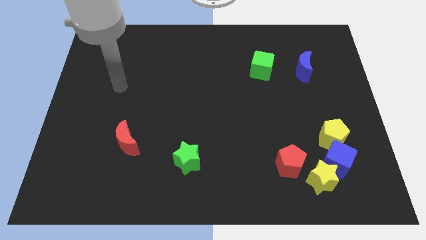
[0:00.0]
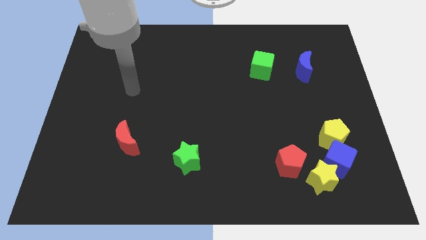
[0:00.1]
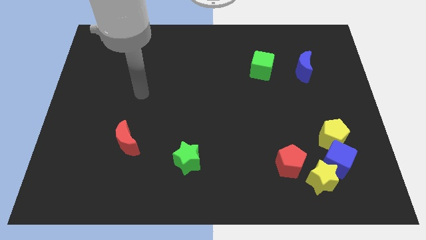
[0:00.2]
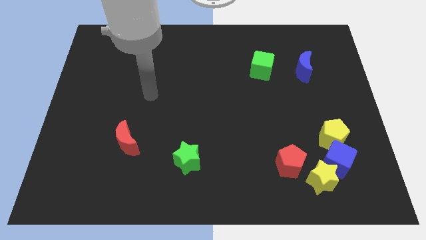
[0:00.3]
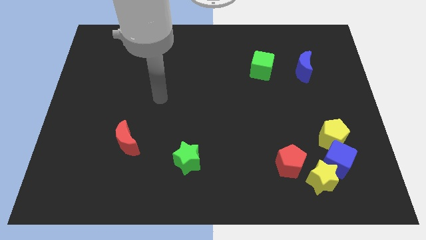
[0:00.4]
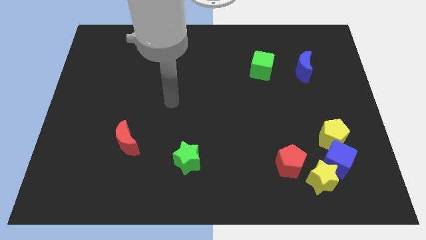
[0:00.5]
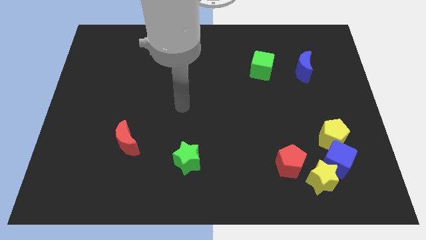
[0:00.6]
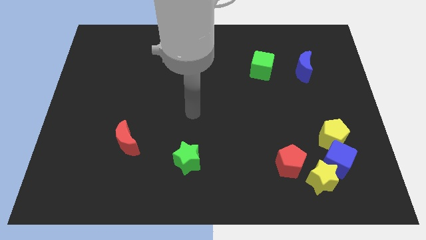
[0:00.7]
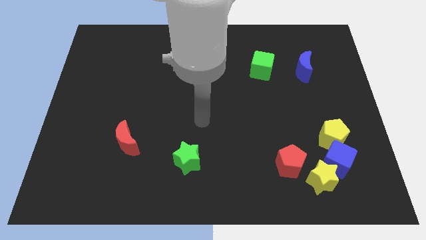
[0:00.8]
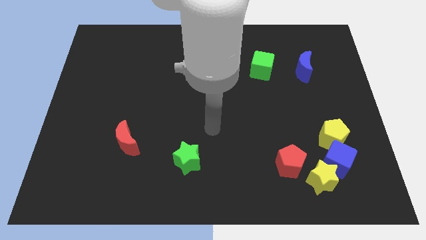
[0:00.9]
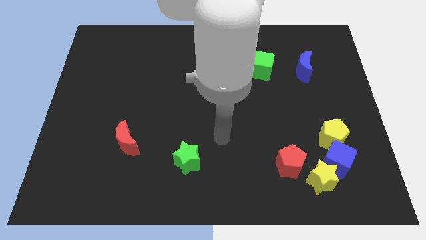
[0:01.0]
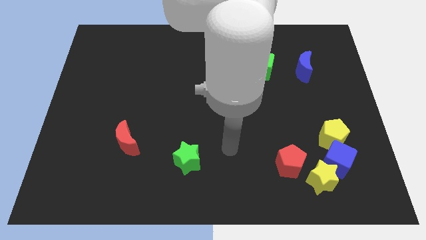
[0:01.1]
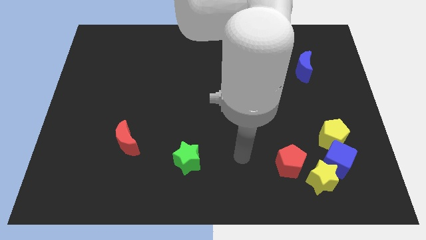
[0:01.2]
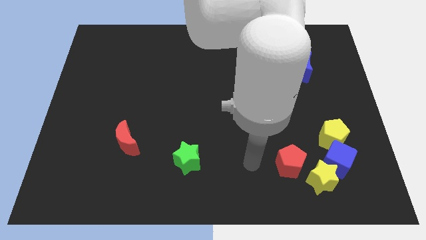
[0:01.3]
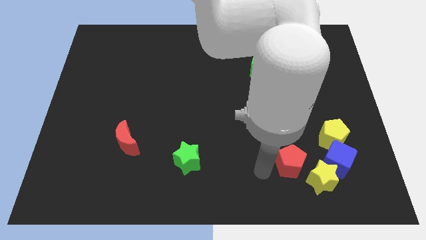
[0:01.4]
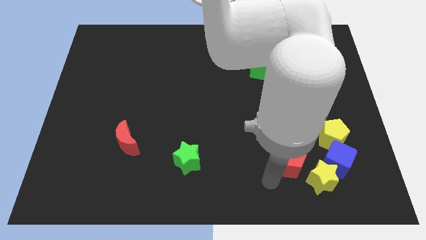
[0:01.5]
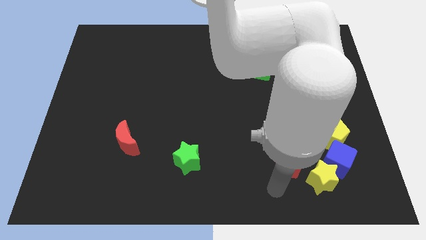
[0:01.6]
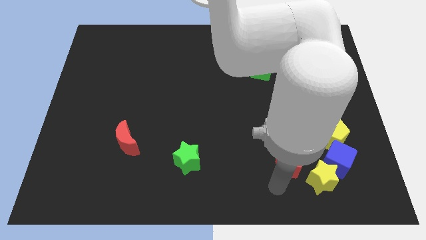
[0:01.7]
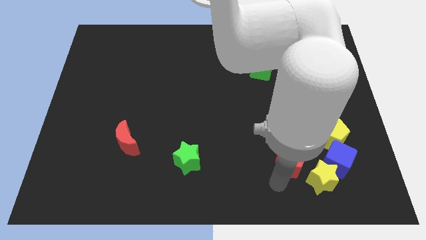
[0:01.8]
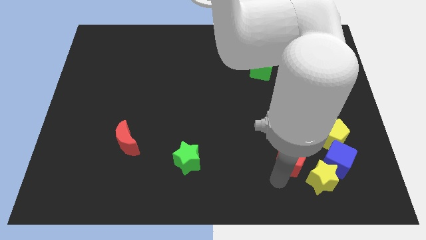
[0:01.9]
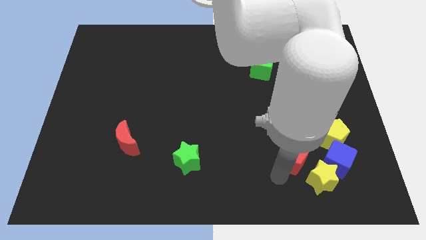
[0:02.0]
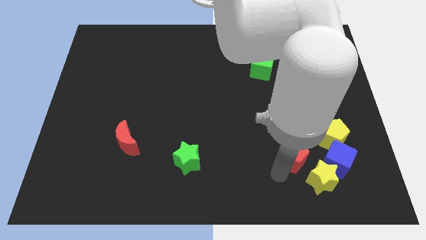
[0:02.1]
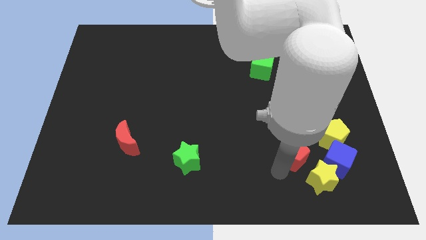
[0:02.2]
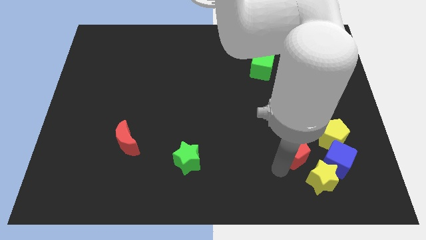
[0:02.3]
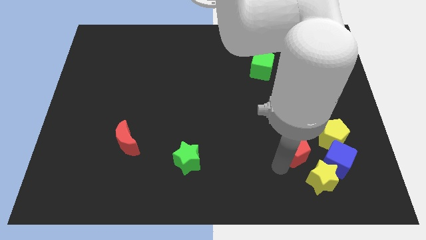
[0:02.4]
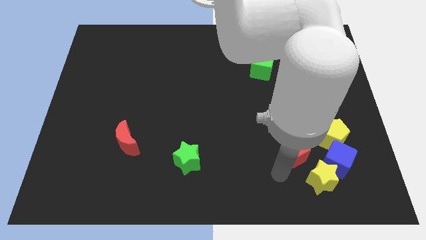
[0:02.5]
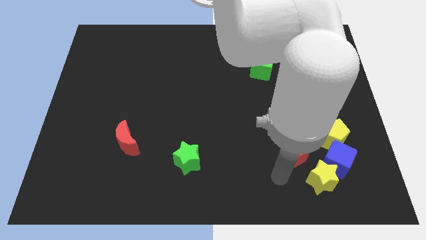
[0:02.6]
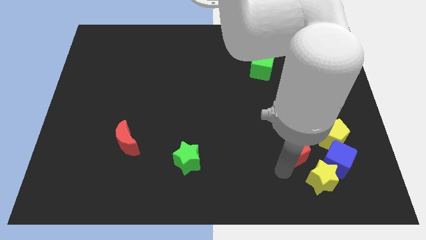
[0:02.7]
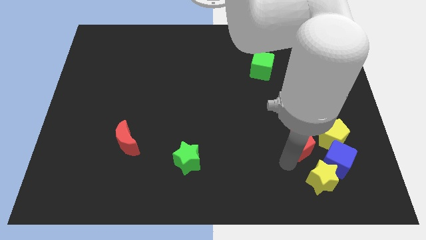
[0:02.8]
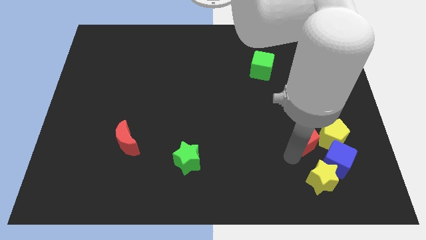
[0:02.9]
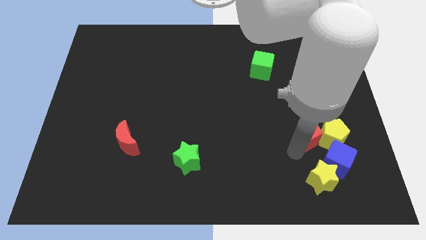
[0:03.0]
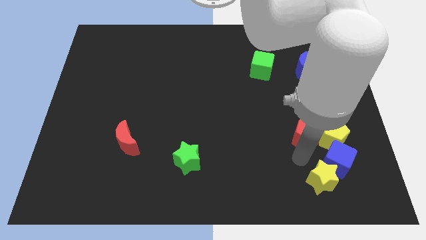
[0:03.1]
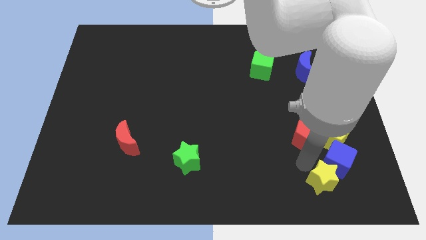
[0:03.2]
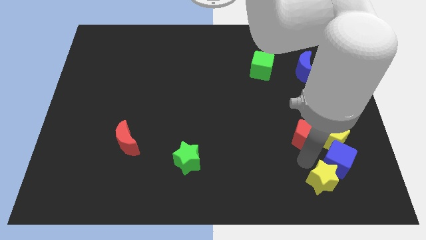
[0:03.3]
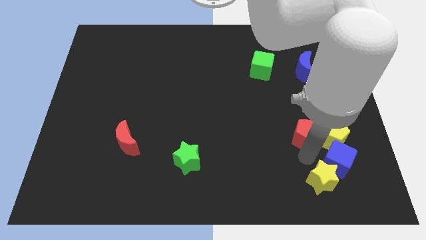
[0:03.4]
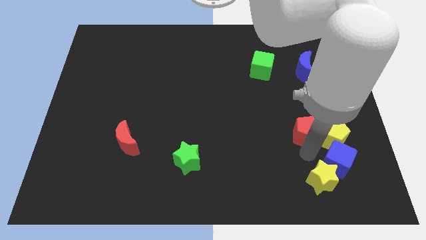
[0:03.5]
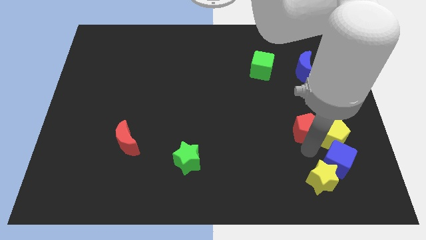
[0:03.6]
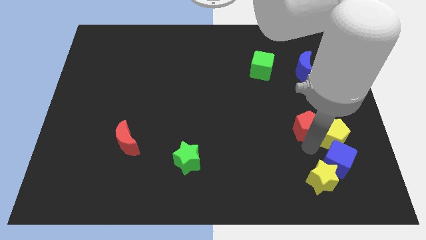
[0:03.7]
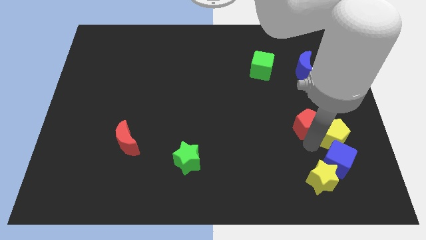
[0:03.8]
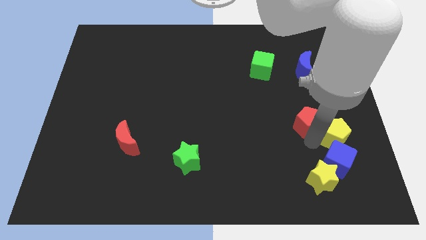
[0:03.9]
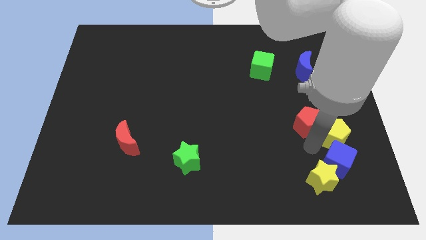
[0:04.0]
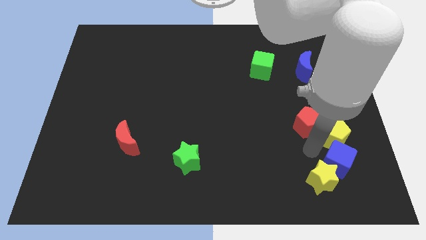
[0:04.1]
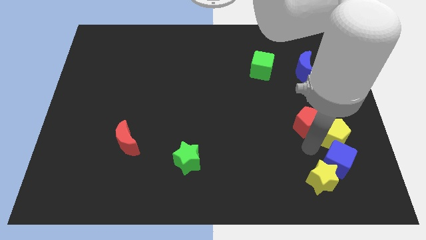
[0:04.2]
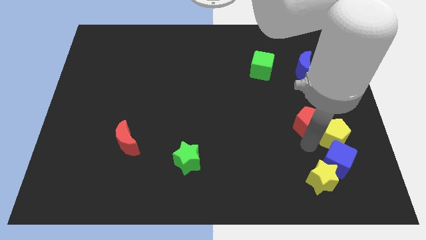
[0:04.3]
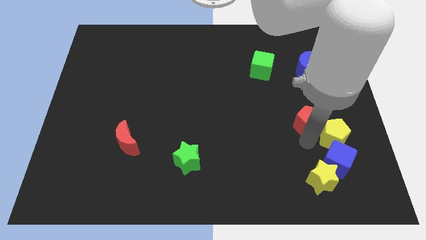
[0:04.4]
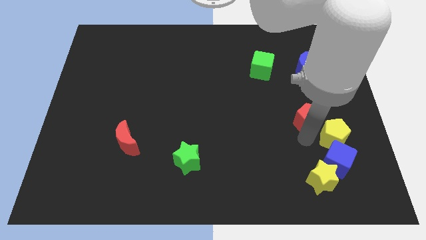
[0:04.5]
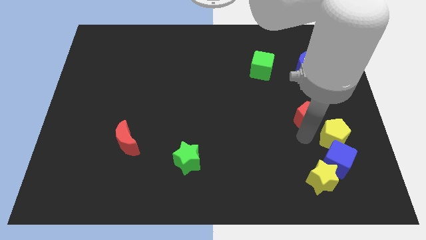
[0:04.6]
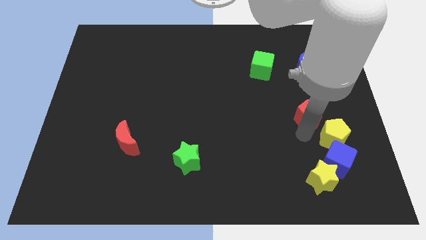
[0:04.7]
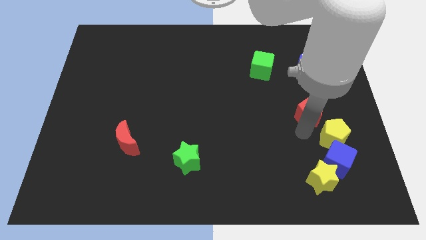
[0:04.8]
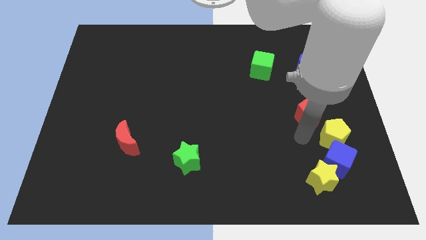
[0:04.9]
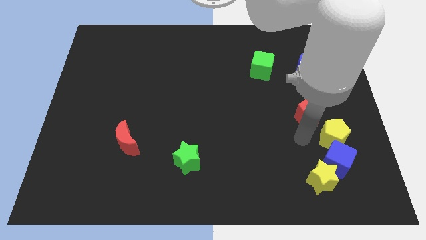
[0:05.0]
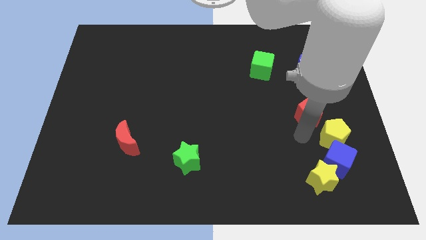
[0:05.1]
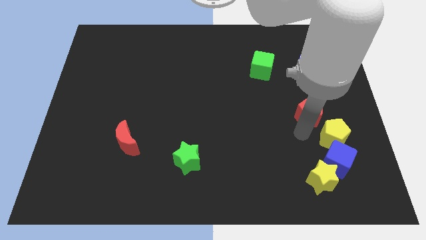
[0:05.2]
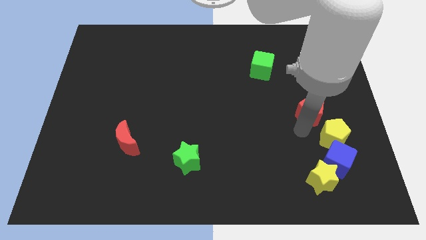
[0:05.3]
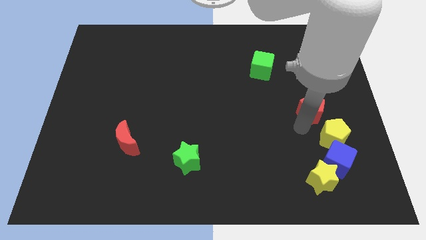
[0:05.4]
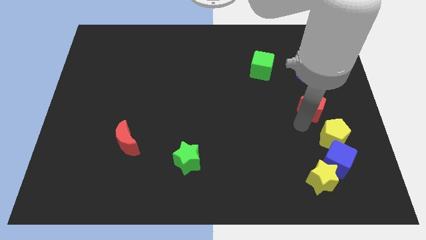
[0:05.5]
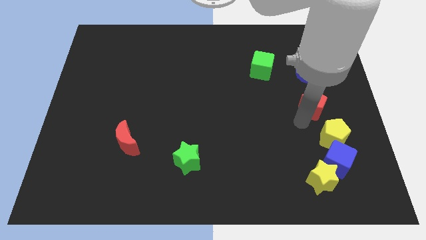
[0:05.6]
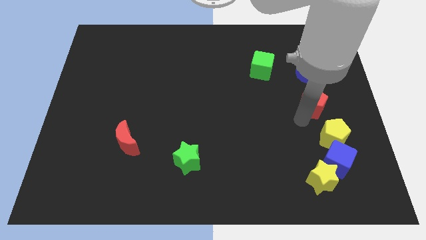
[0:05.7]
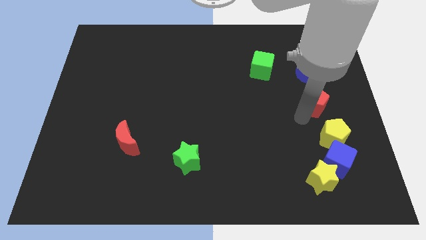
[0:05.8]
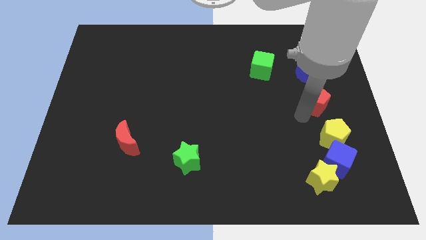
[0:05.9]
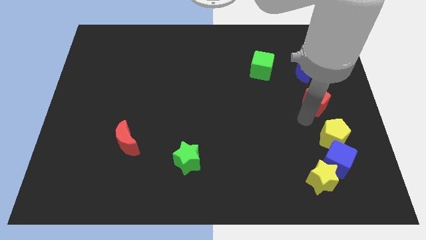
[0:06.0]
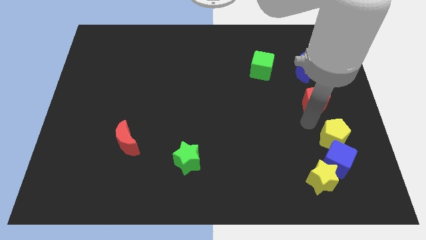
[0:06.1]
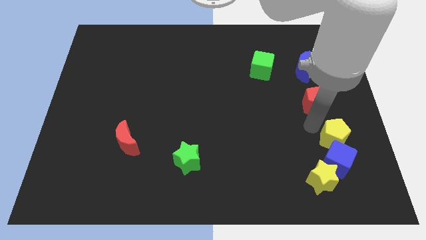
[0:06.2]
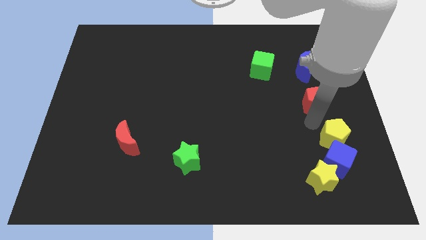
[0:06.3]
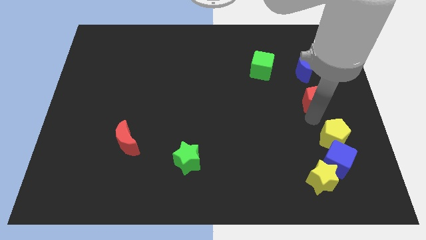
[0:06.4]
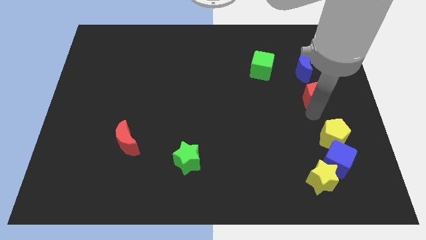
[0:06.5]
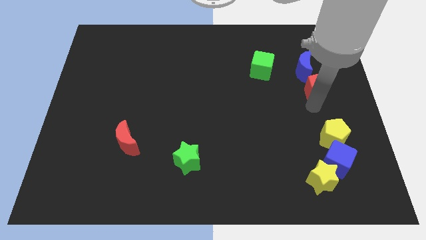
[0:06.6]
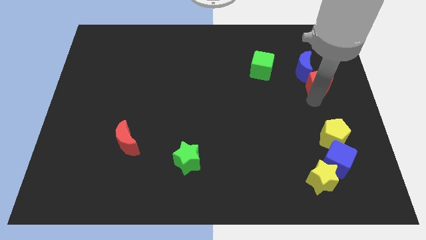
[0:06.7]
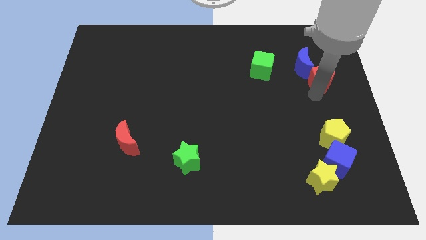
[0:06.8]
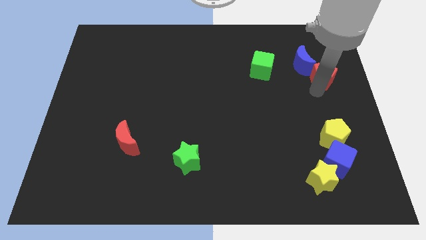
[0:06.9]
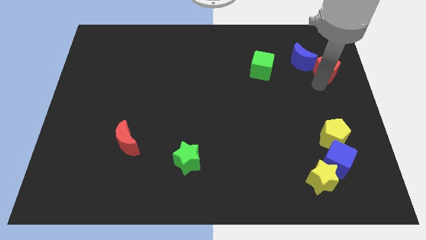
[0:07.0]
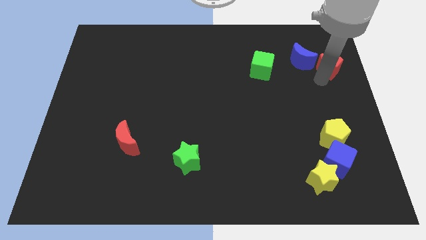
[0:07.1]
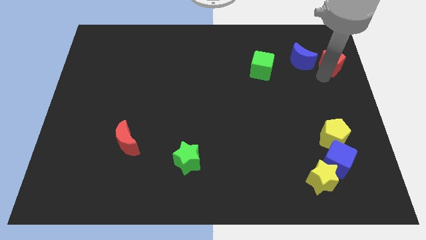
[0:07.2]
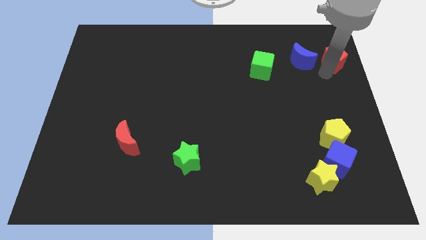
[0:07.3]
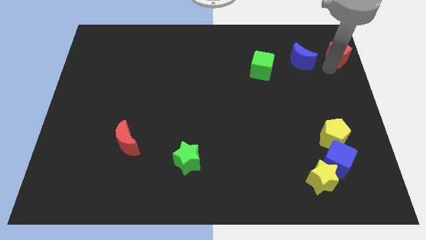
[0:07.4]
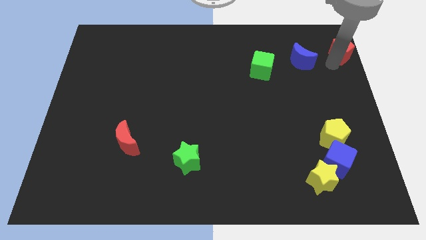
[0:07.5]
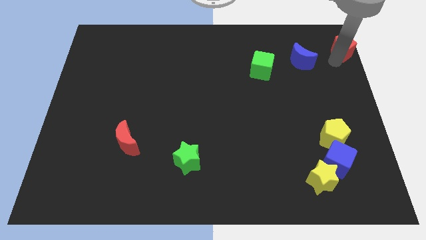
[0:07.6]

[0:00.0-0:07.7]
push the red pentagon to the top right corner
